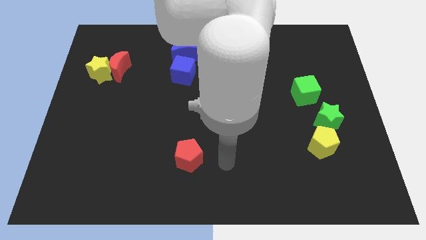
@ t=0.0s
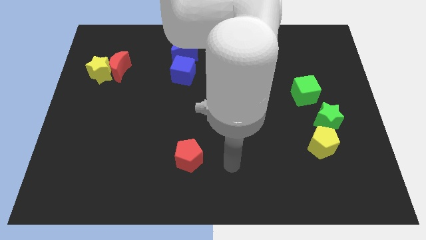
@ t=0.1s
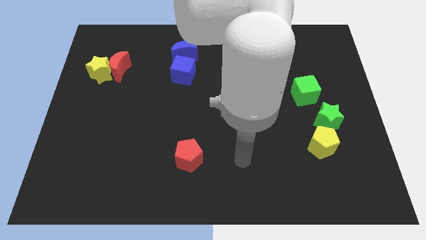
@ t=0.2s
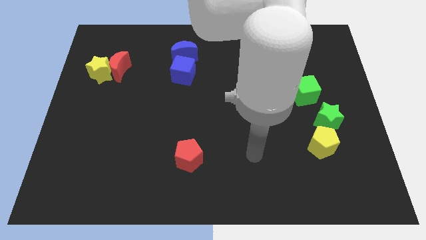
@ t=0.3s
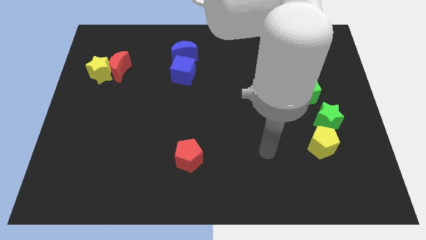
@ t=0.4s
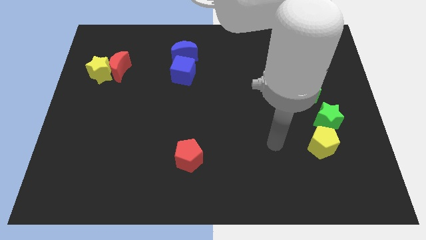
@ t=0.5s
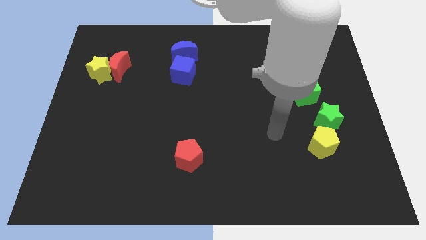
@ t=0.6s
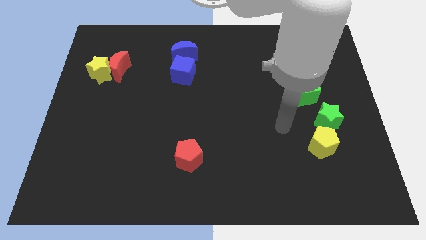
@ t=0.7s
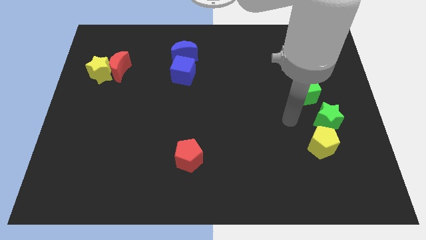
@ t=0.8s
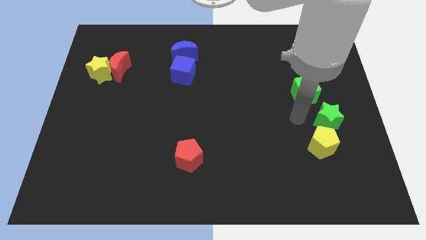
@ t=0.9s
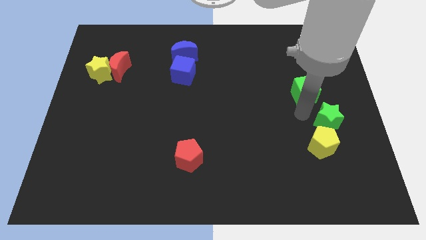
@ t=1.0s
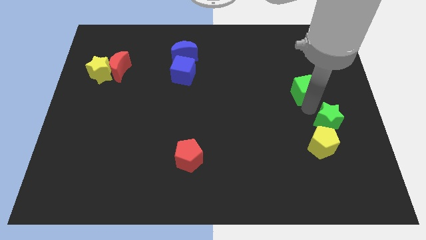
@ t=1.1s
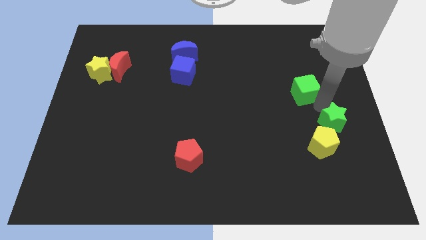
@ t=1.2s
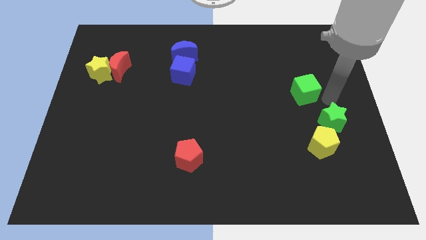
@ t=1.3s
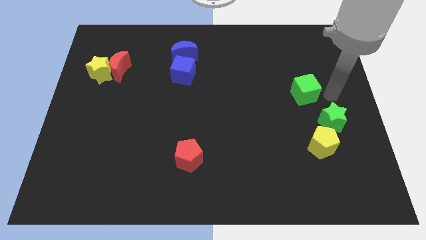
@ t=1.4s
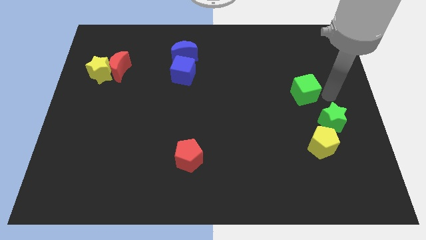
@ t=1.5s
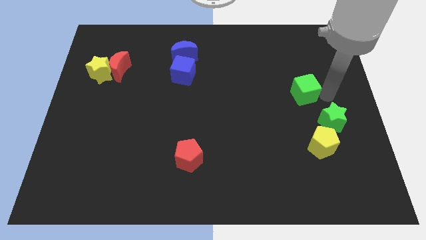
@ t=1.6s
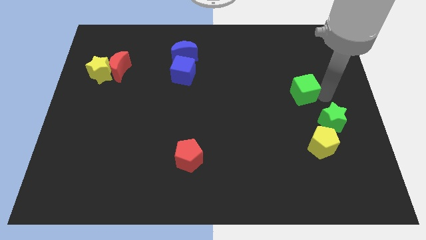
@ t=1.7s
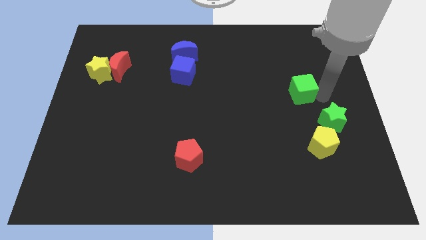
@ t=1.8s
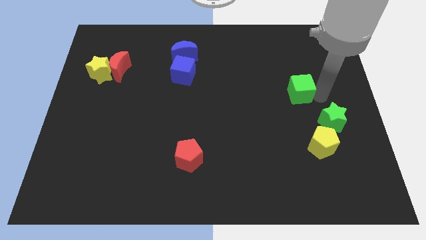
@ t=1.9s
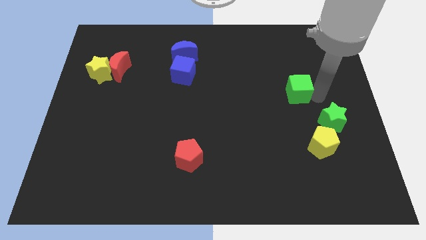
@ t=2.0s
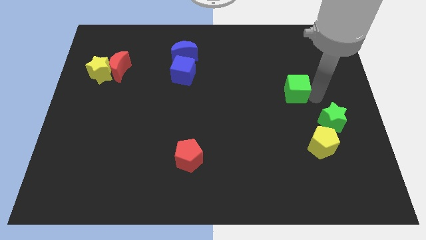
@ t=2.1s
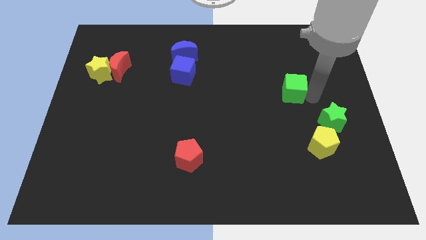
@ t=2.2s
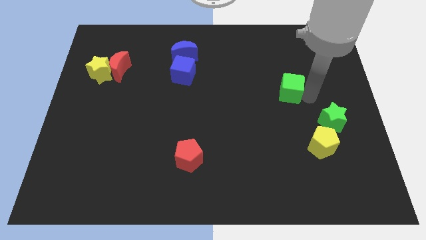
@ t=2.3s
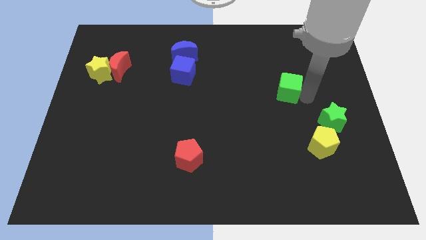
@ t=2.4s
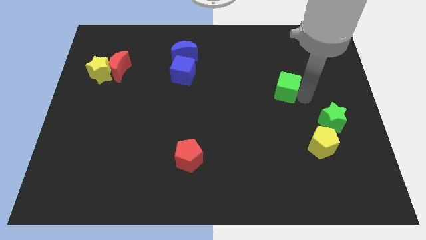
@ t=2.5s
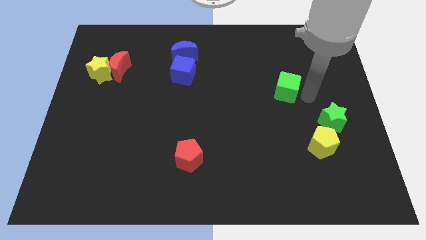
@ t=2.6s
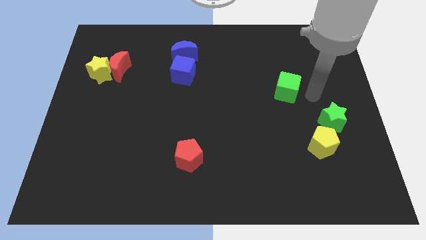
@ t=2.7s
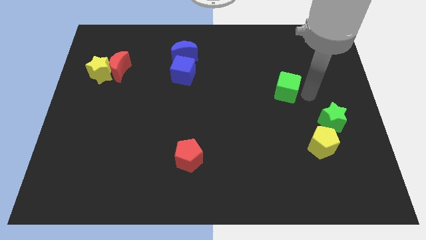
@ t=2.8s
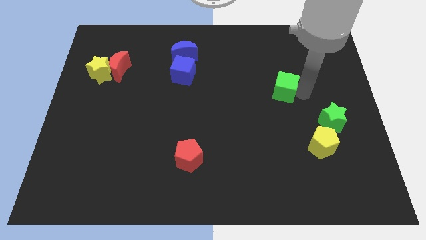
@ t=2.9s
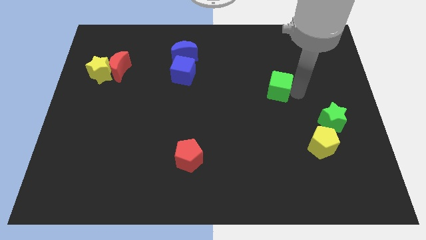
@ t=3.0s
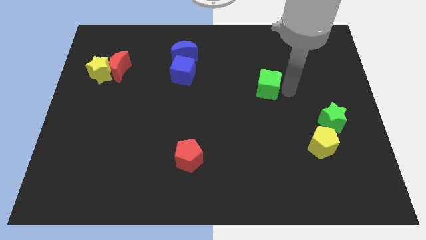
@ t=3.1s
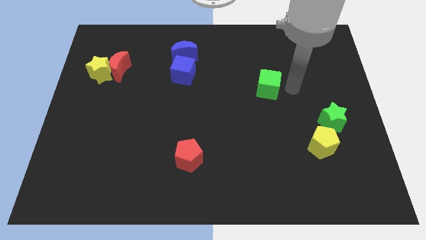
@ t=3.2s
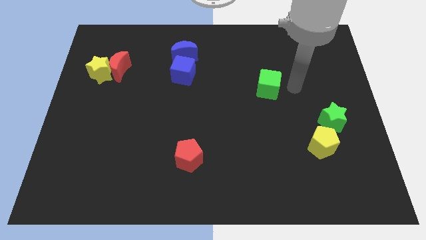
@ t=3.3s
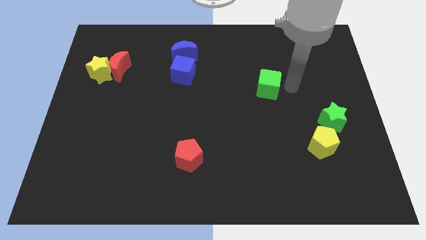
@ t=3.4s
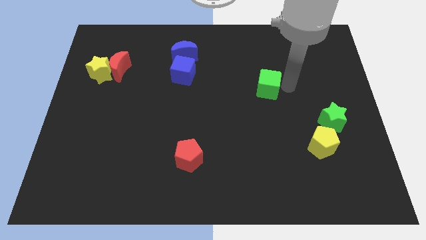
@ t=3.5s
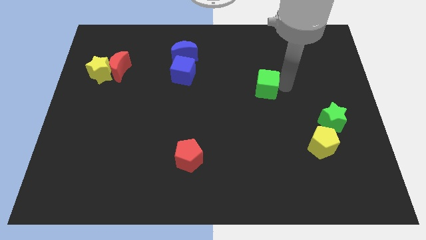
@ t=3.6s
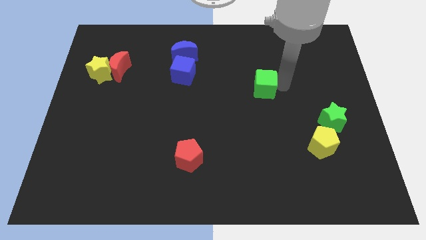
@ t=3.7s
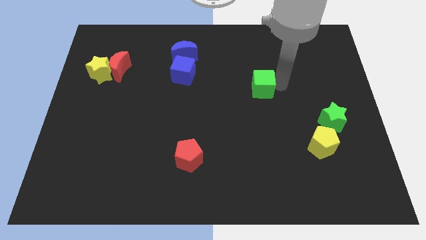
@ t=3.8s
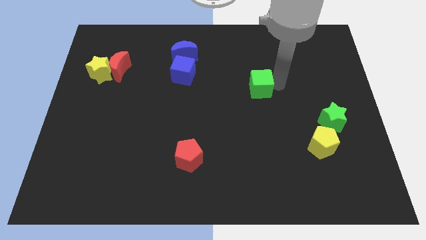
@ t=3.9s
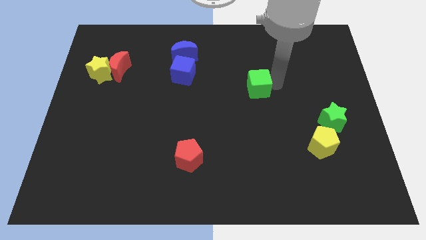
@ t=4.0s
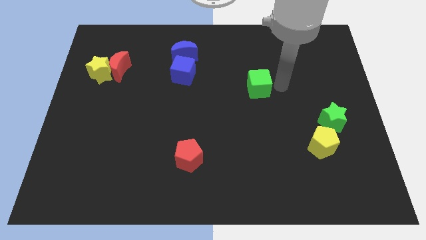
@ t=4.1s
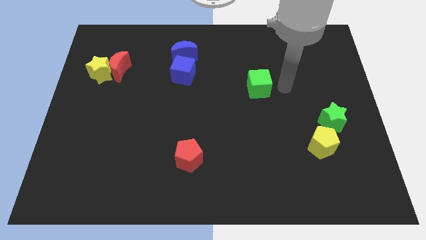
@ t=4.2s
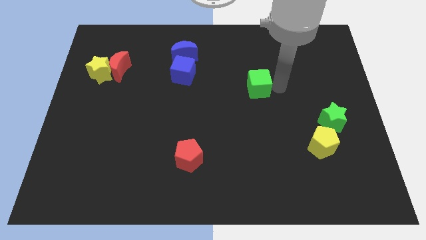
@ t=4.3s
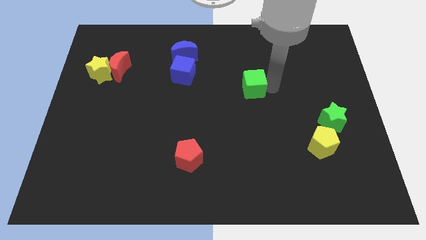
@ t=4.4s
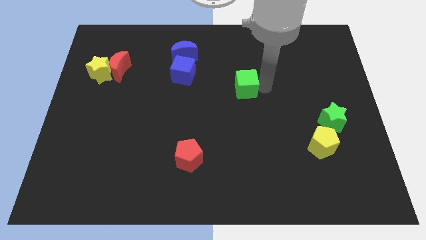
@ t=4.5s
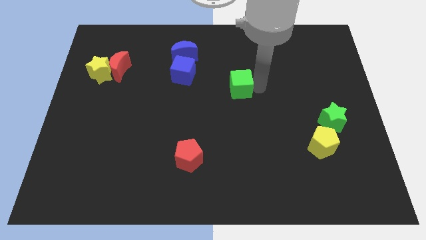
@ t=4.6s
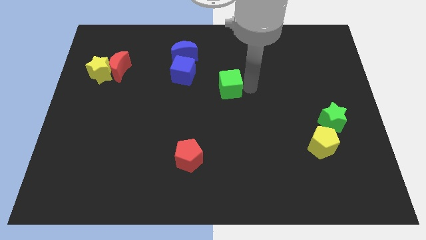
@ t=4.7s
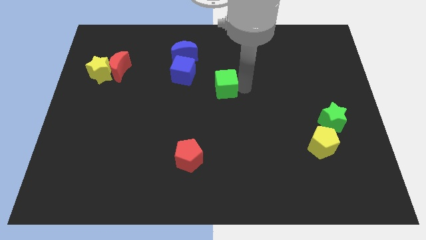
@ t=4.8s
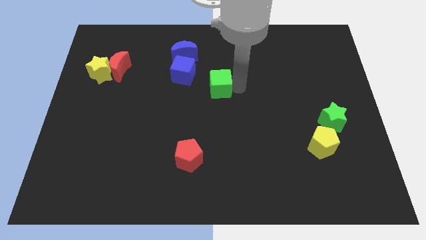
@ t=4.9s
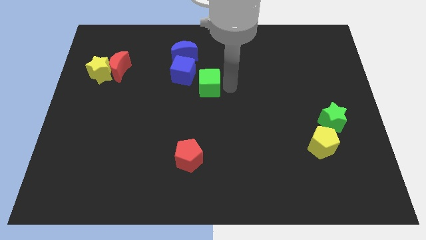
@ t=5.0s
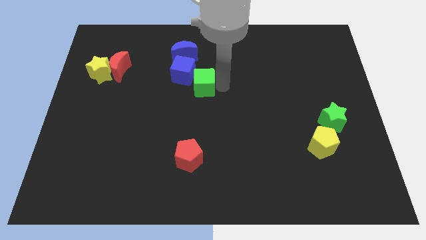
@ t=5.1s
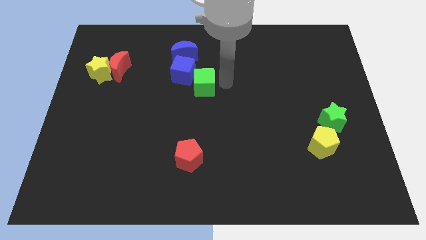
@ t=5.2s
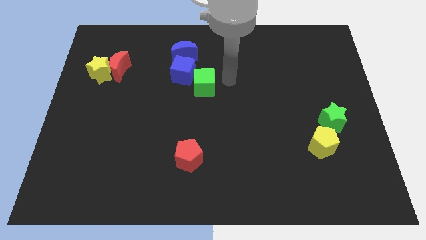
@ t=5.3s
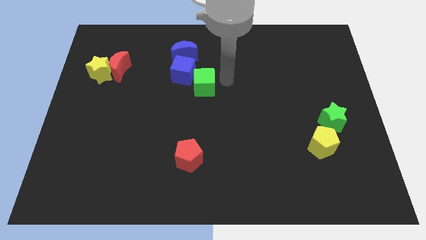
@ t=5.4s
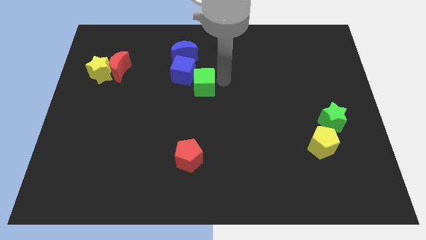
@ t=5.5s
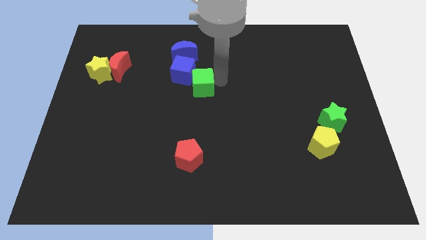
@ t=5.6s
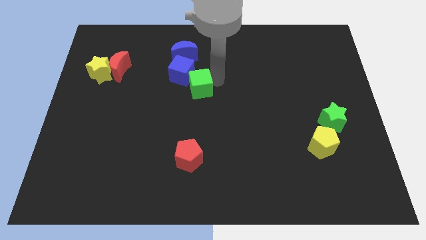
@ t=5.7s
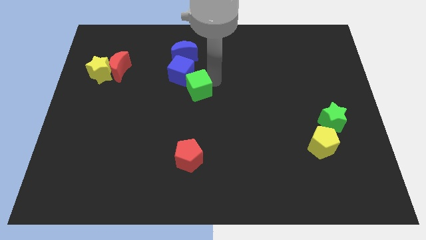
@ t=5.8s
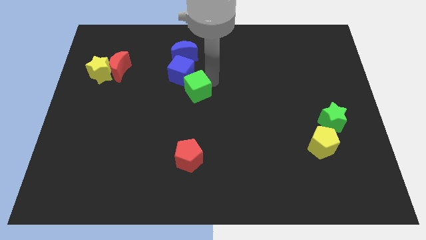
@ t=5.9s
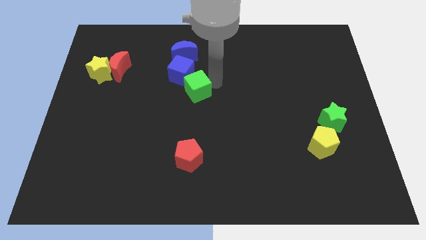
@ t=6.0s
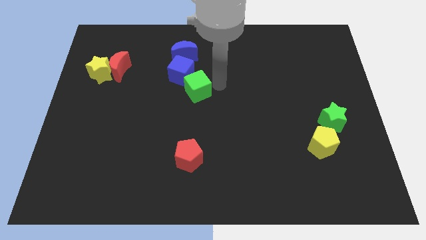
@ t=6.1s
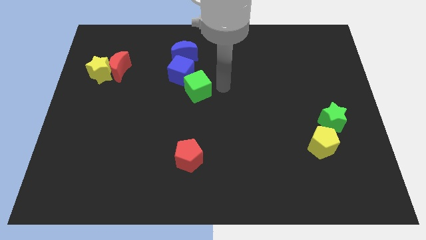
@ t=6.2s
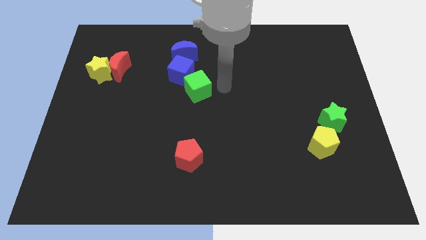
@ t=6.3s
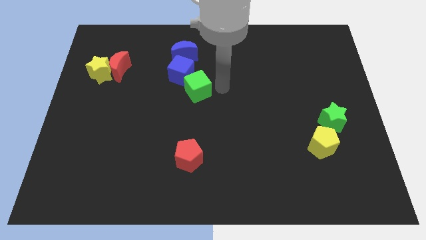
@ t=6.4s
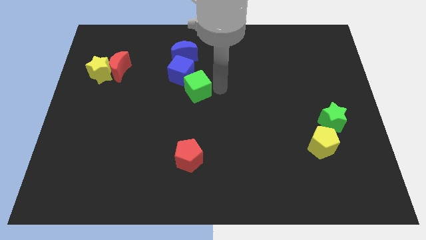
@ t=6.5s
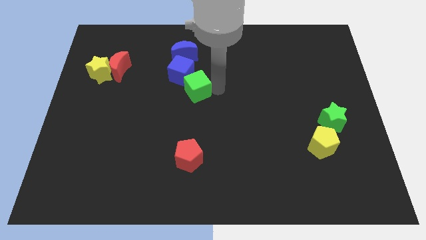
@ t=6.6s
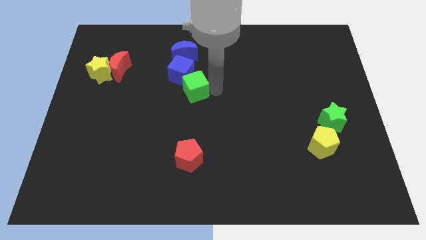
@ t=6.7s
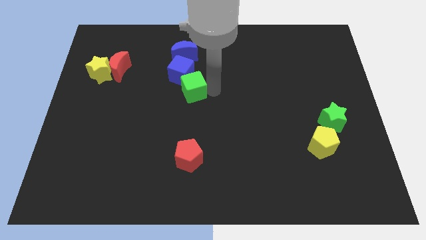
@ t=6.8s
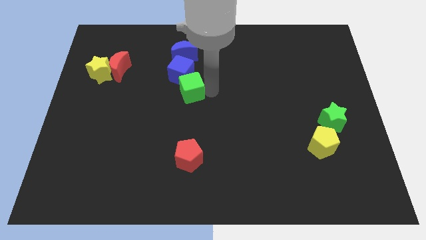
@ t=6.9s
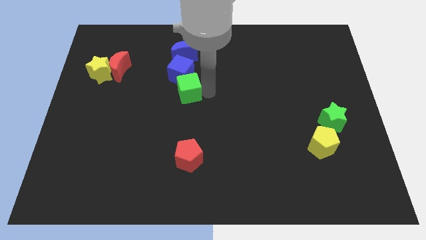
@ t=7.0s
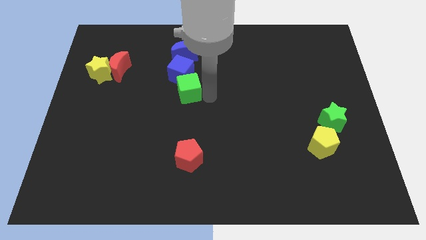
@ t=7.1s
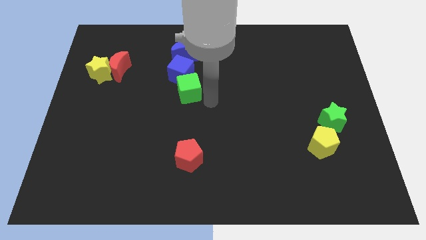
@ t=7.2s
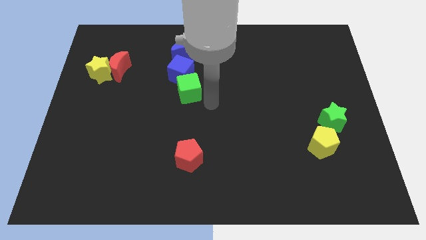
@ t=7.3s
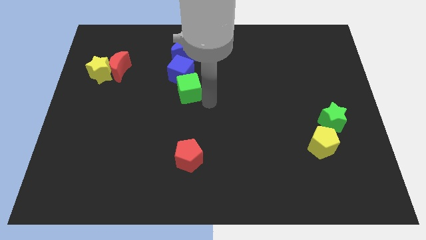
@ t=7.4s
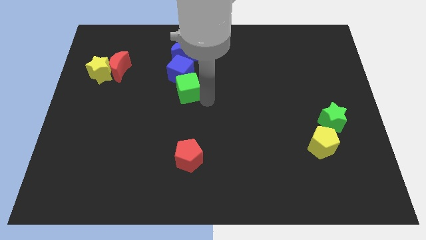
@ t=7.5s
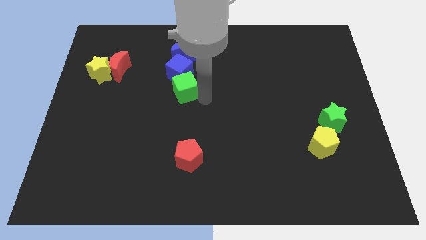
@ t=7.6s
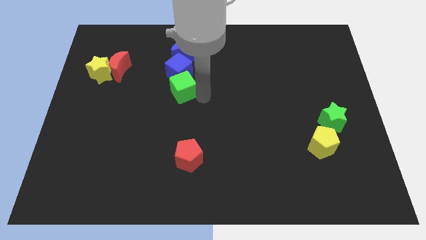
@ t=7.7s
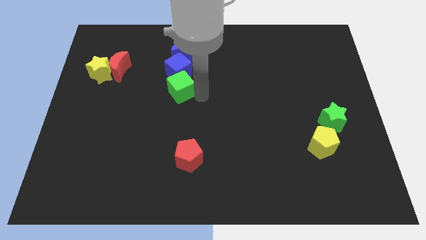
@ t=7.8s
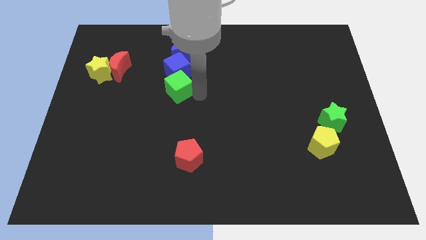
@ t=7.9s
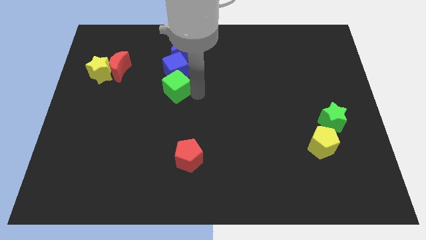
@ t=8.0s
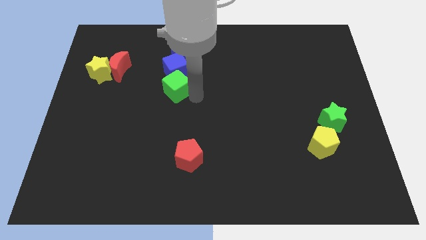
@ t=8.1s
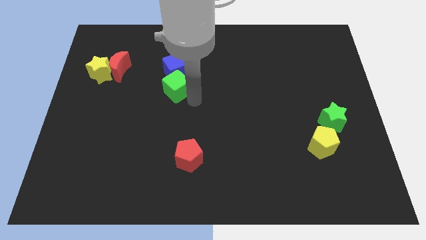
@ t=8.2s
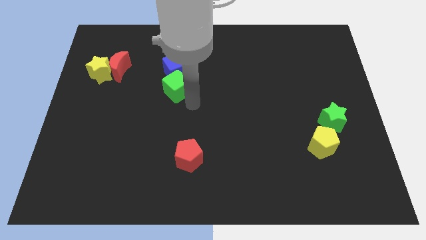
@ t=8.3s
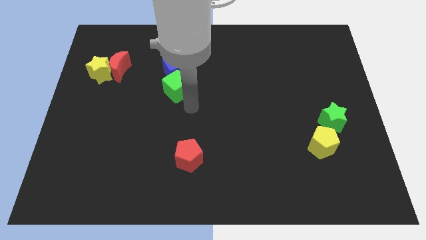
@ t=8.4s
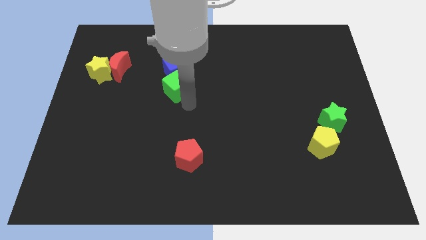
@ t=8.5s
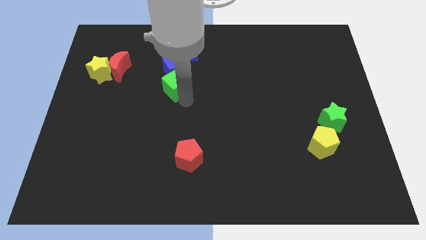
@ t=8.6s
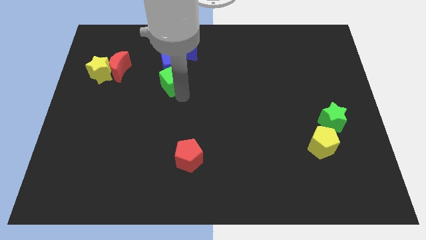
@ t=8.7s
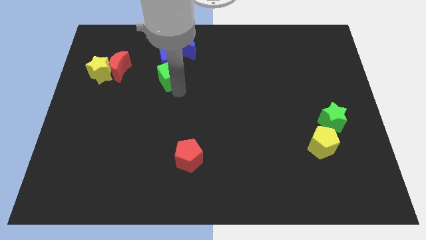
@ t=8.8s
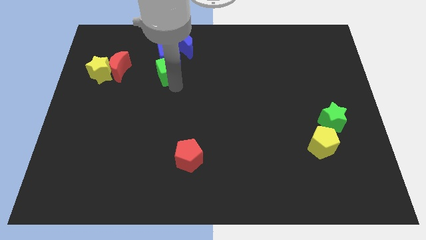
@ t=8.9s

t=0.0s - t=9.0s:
push the green cube diagonally down and to the left of the blue moon
